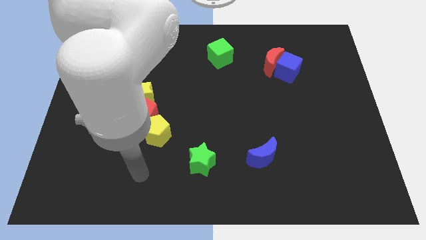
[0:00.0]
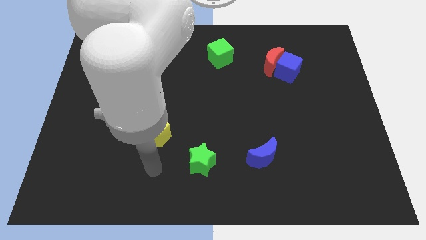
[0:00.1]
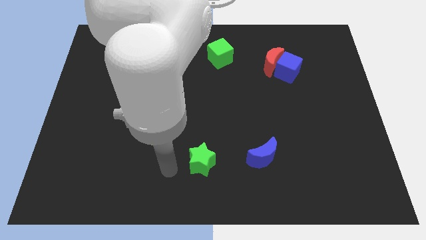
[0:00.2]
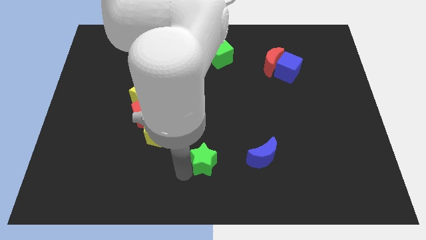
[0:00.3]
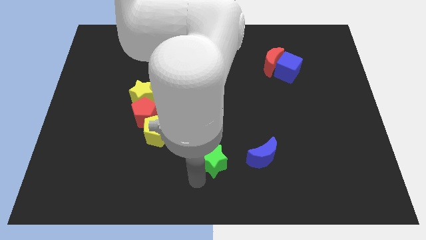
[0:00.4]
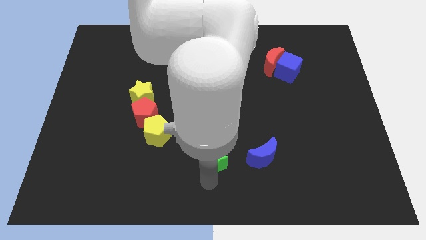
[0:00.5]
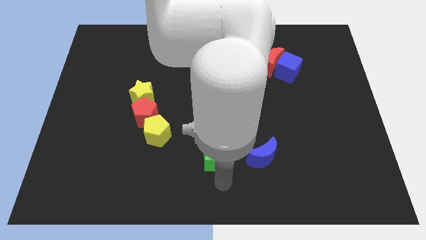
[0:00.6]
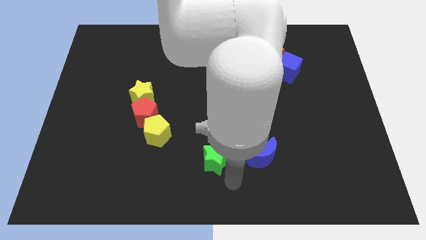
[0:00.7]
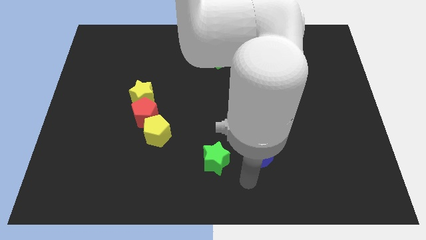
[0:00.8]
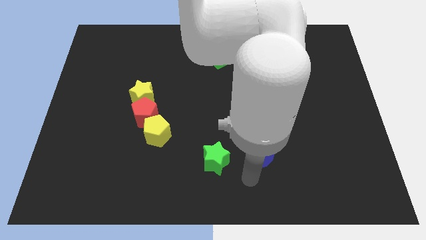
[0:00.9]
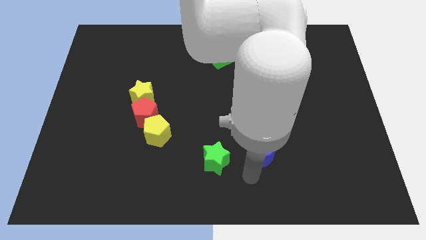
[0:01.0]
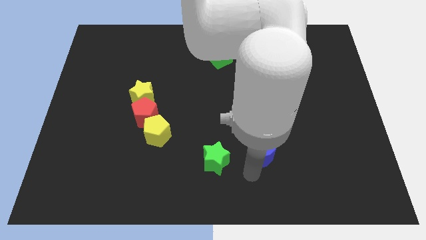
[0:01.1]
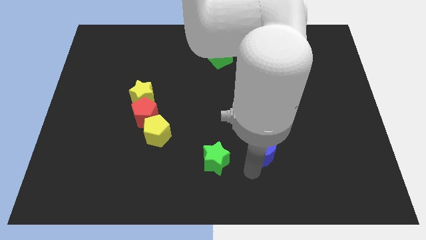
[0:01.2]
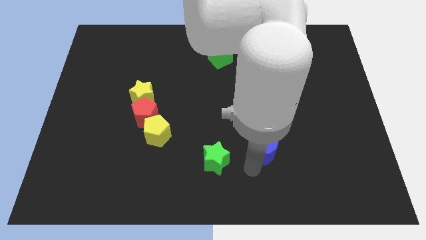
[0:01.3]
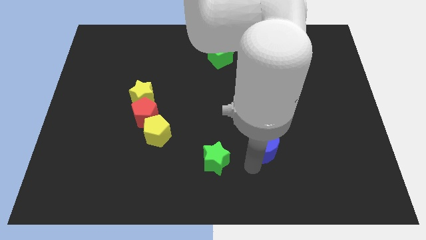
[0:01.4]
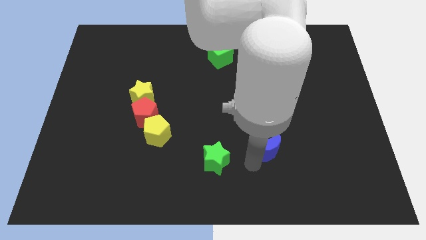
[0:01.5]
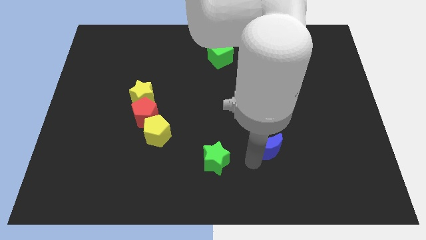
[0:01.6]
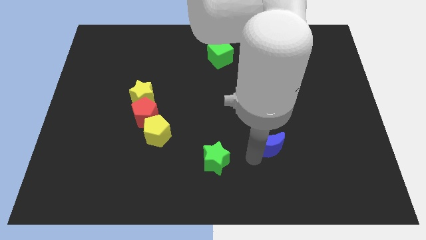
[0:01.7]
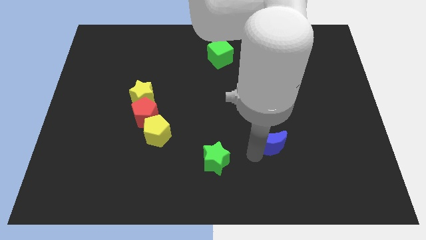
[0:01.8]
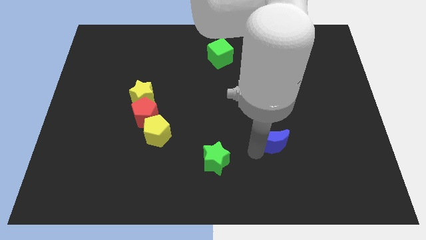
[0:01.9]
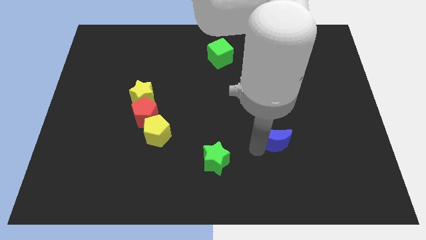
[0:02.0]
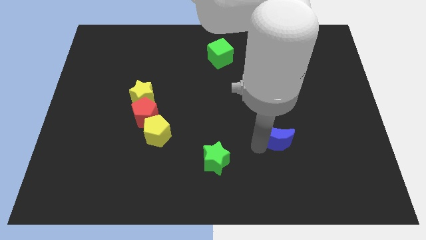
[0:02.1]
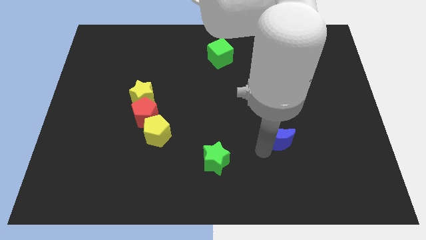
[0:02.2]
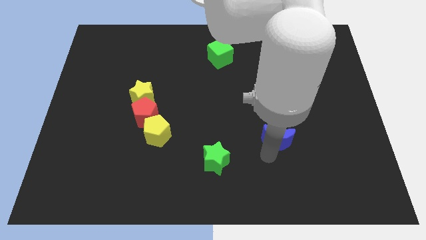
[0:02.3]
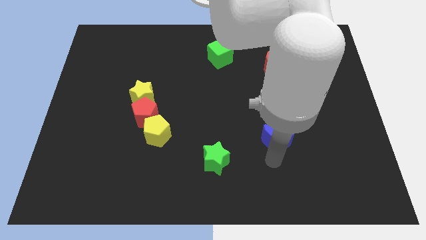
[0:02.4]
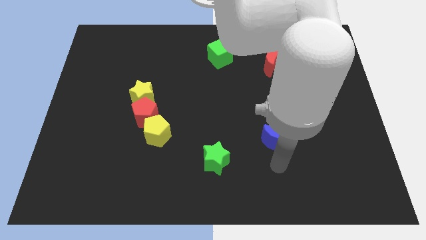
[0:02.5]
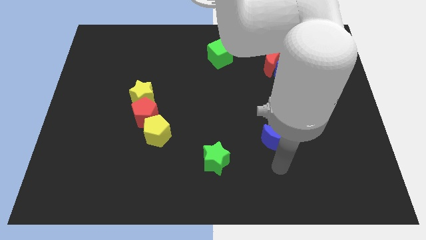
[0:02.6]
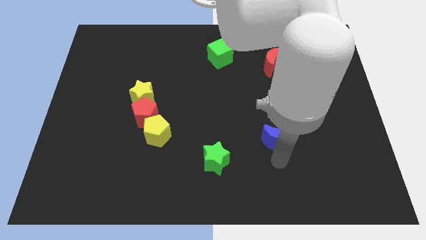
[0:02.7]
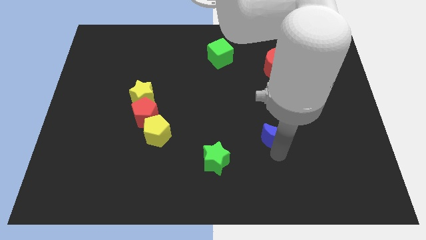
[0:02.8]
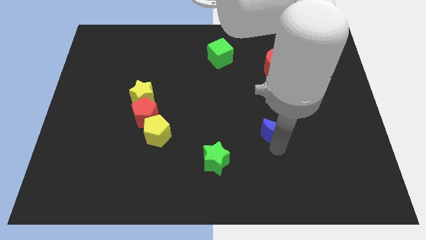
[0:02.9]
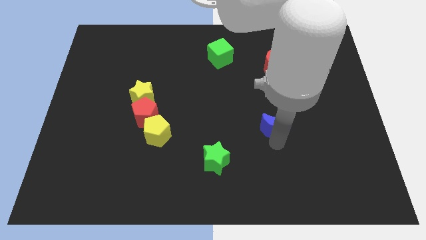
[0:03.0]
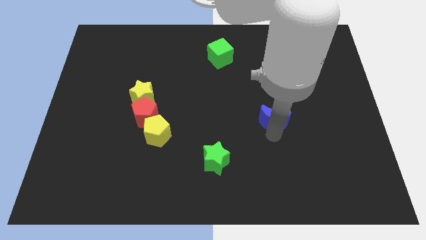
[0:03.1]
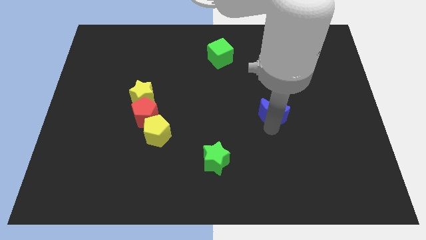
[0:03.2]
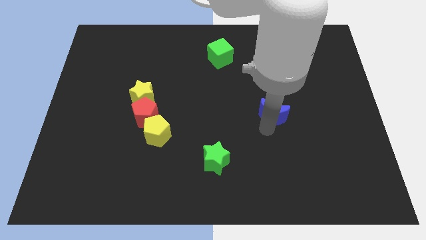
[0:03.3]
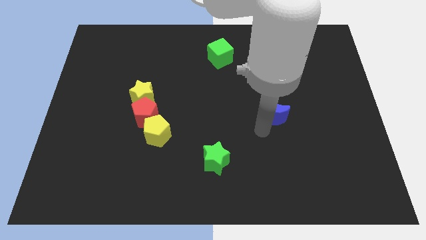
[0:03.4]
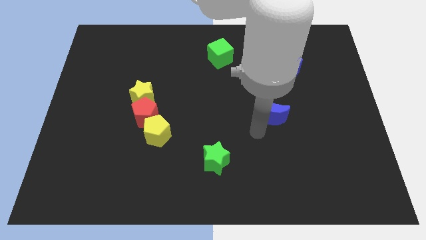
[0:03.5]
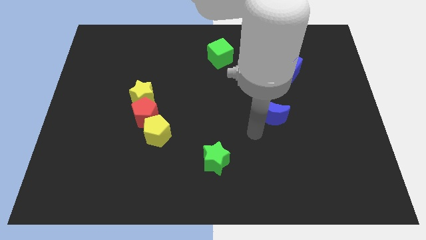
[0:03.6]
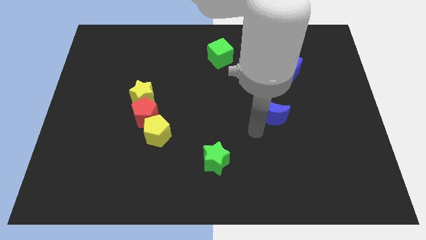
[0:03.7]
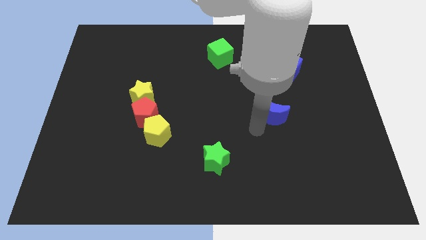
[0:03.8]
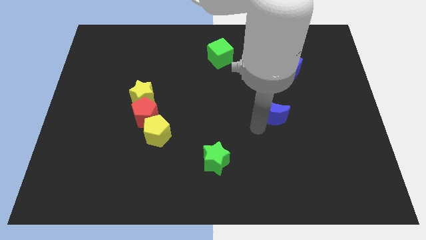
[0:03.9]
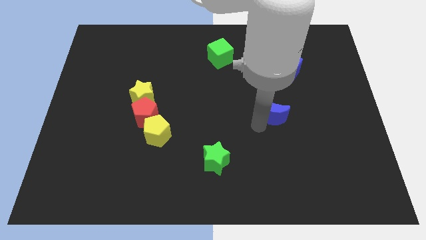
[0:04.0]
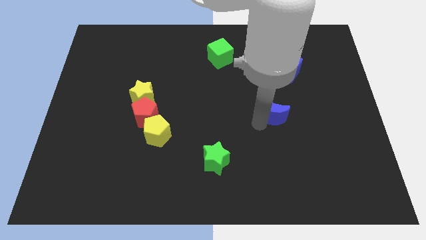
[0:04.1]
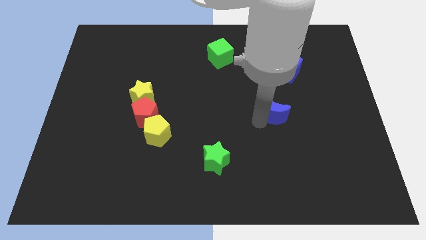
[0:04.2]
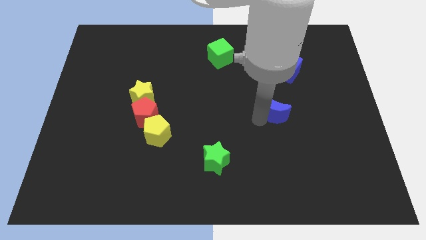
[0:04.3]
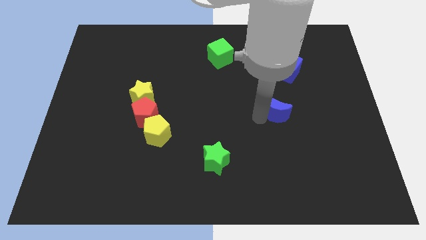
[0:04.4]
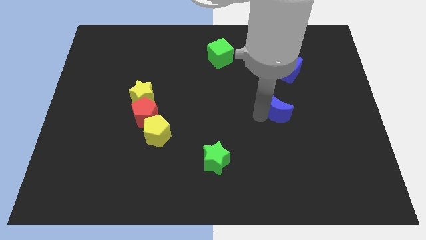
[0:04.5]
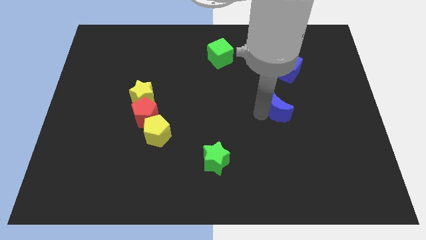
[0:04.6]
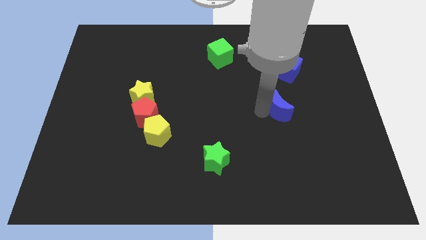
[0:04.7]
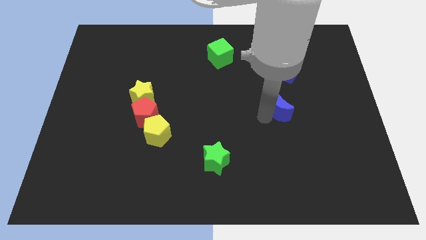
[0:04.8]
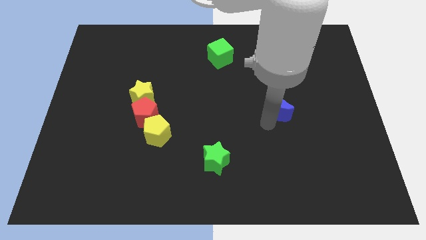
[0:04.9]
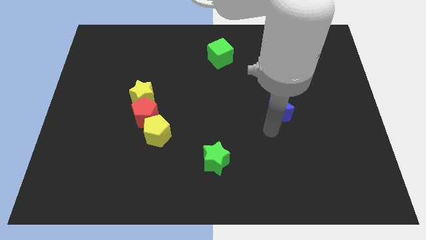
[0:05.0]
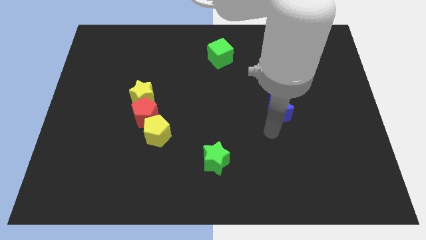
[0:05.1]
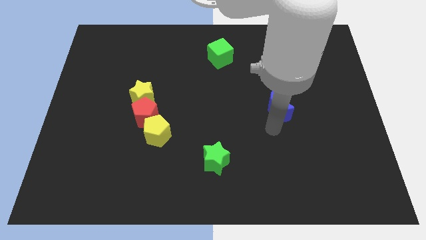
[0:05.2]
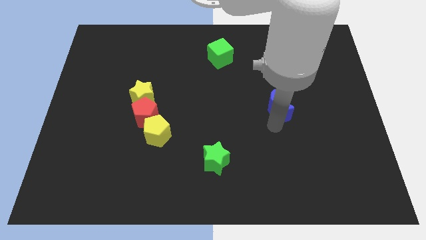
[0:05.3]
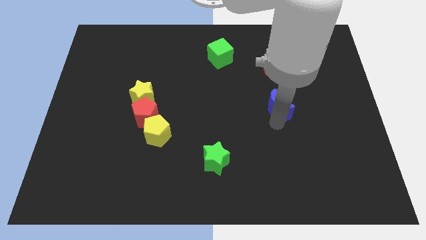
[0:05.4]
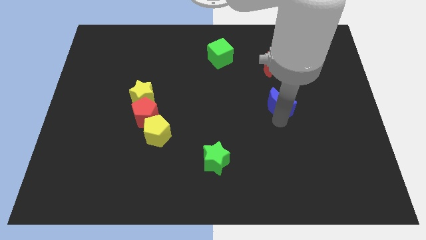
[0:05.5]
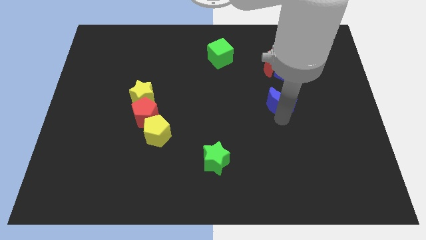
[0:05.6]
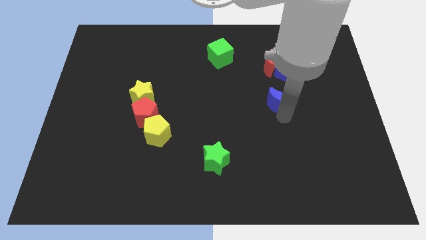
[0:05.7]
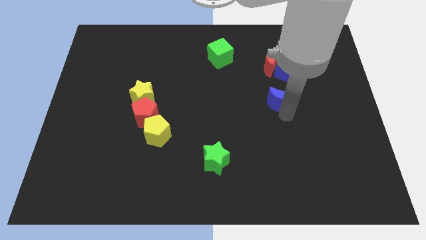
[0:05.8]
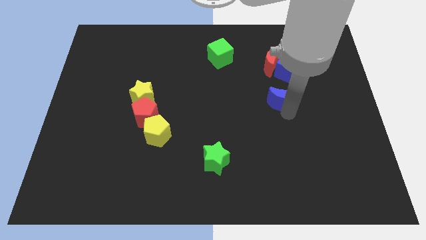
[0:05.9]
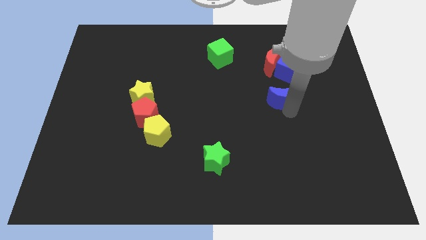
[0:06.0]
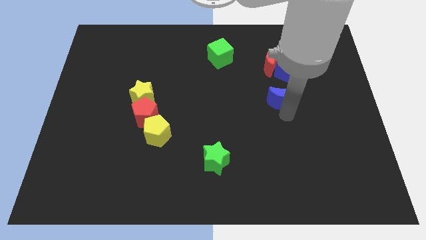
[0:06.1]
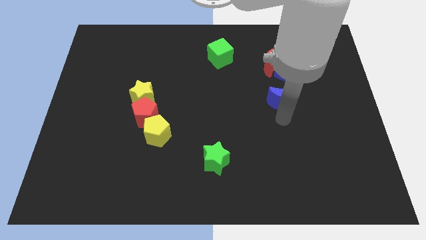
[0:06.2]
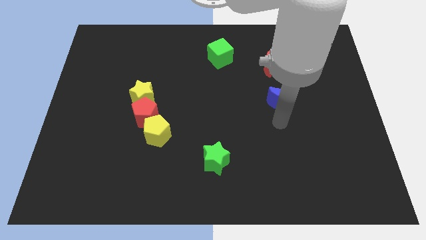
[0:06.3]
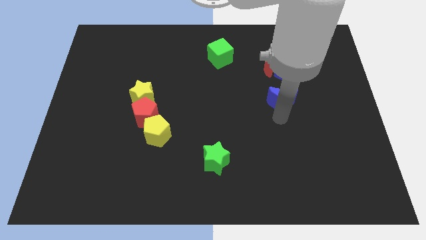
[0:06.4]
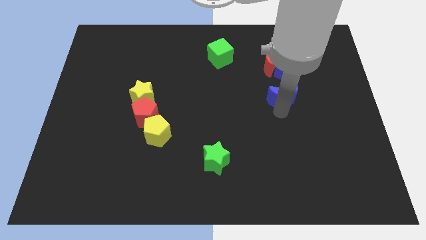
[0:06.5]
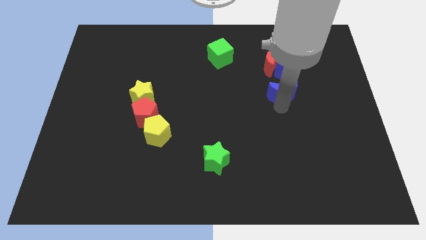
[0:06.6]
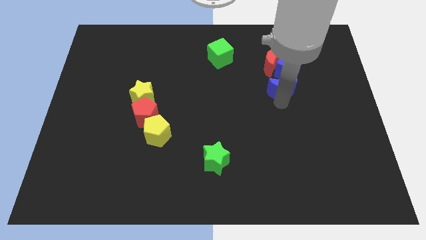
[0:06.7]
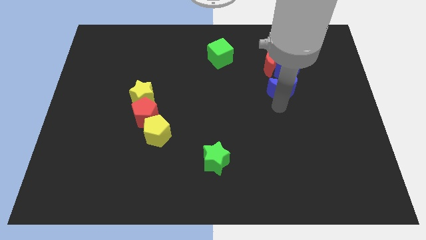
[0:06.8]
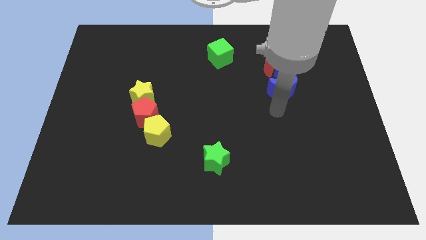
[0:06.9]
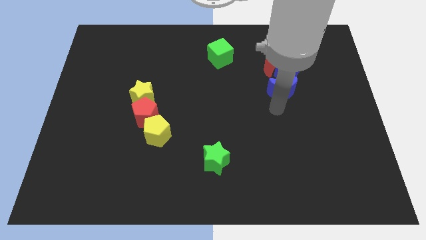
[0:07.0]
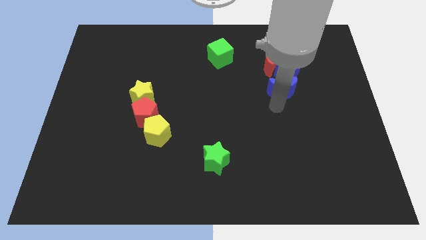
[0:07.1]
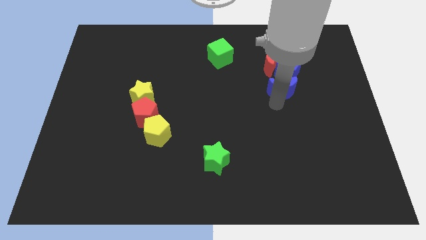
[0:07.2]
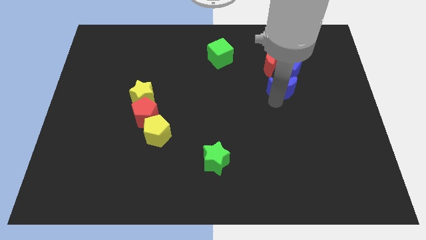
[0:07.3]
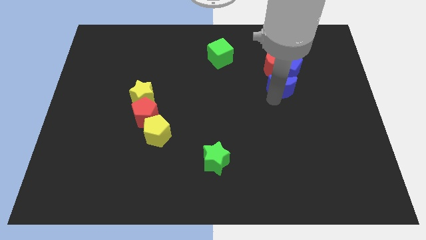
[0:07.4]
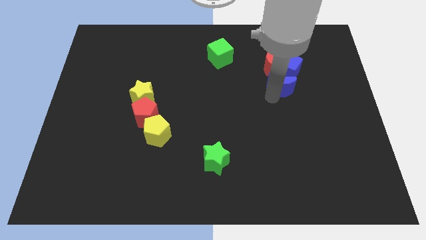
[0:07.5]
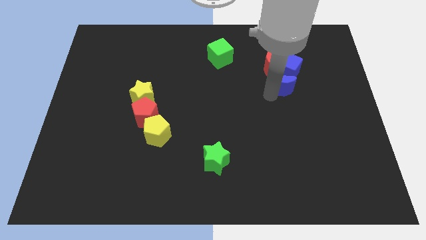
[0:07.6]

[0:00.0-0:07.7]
move the blue moon towards the blue cube
